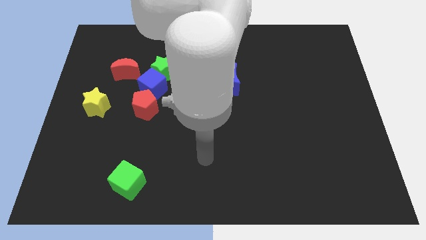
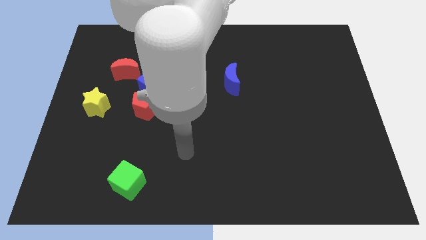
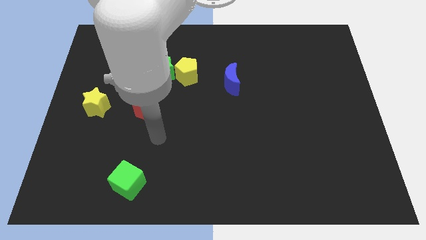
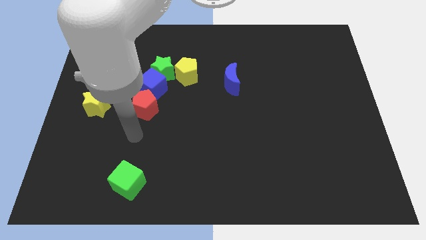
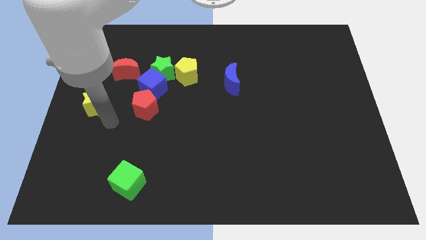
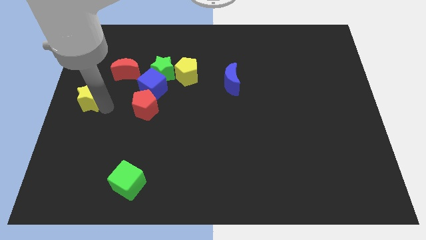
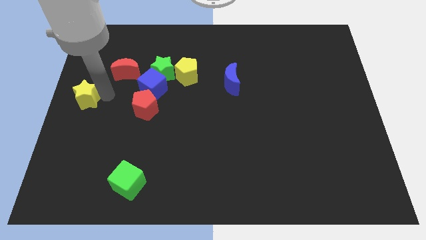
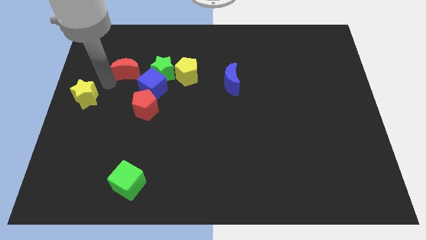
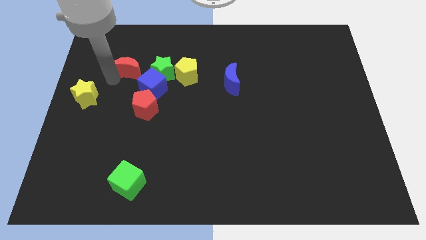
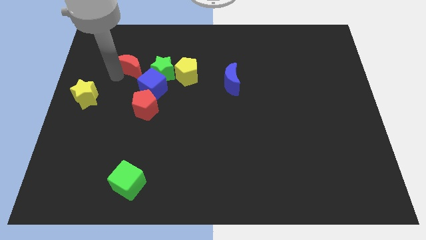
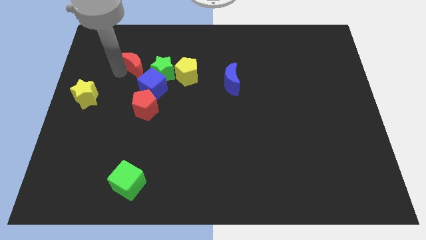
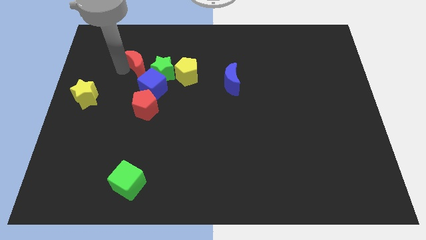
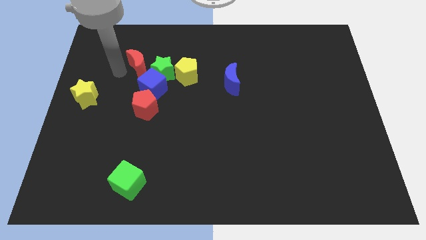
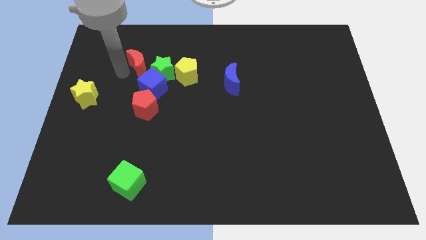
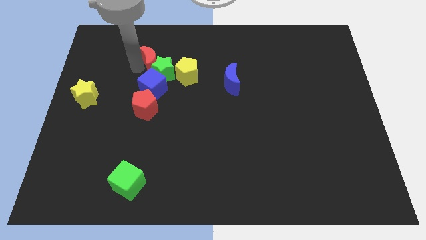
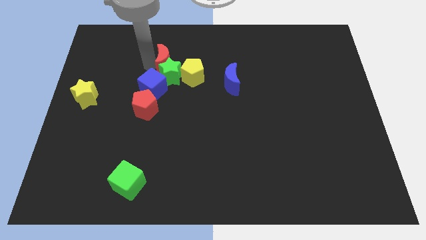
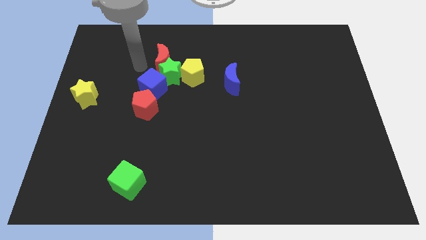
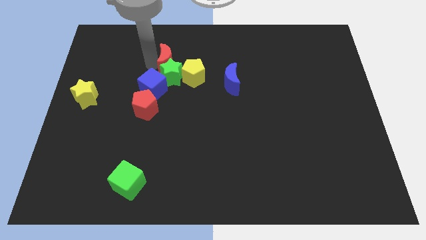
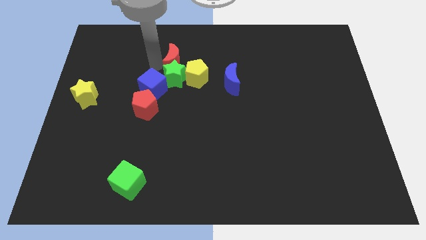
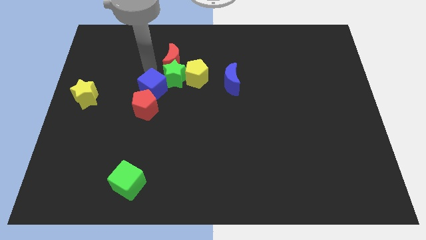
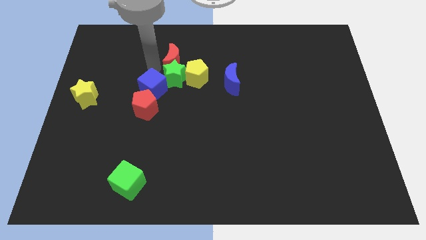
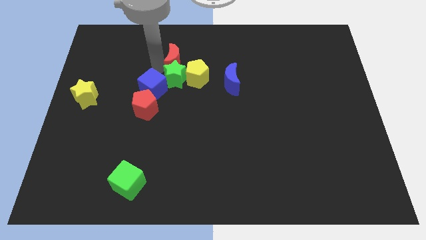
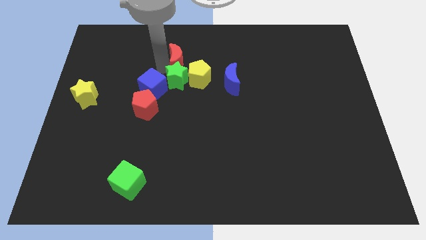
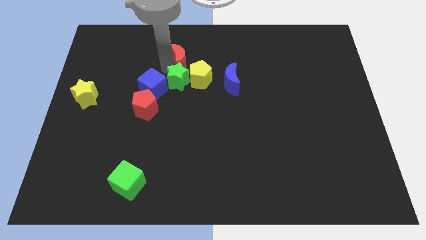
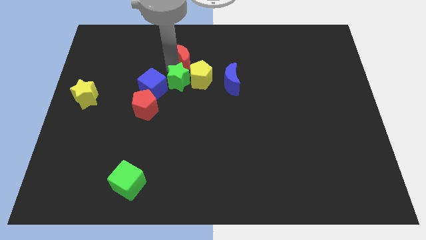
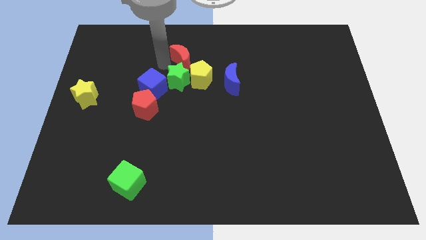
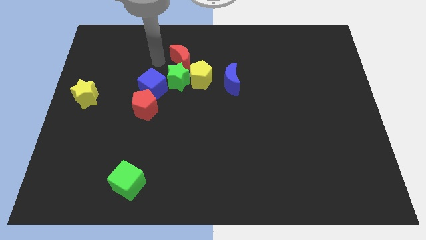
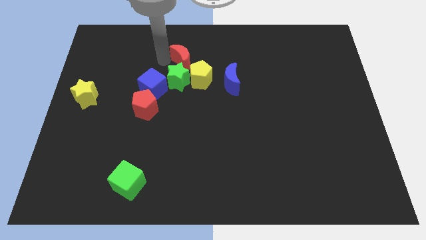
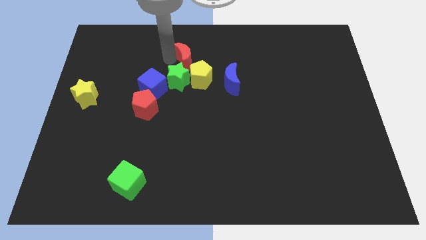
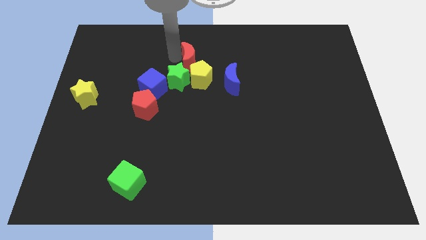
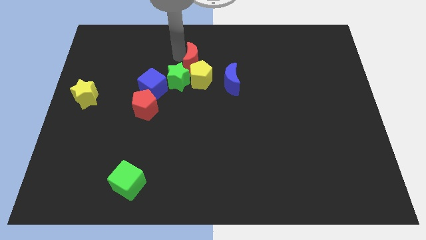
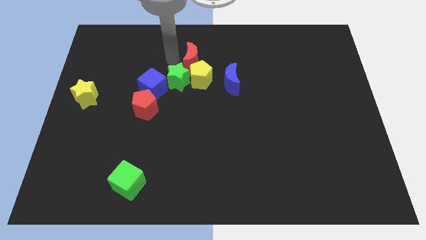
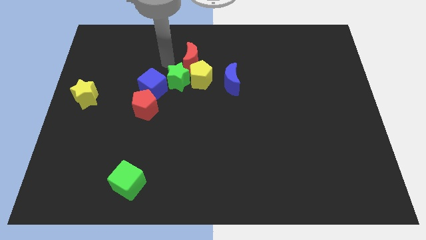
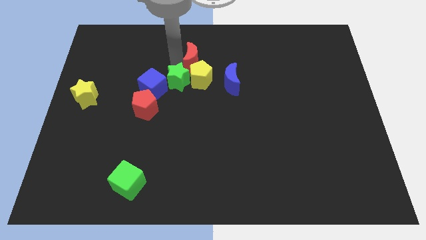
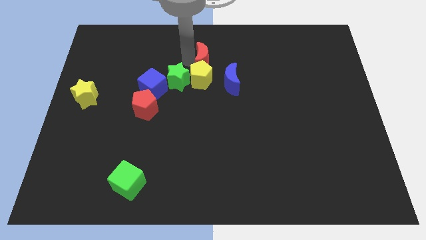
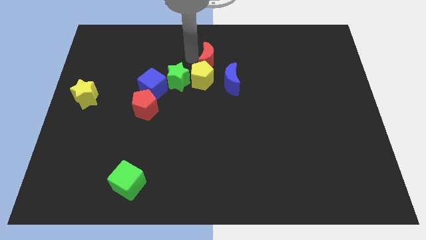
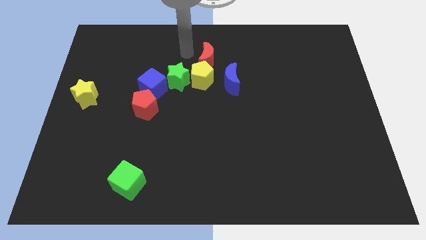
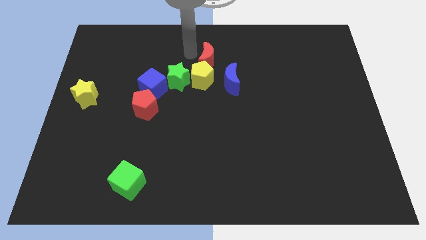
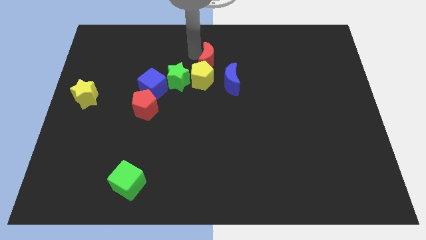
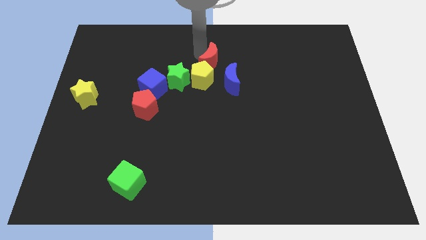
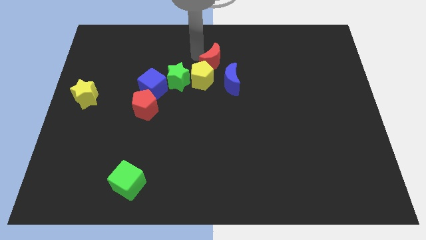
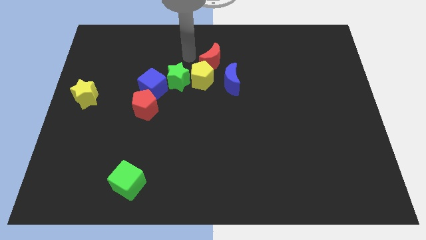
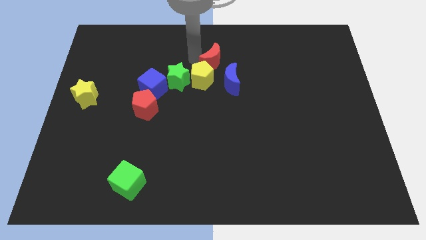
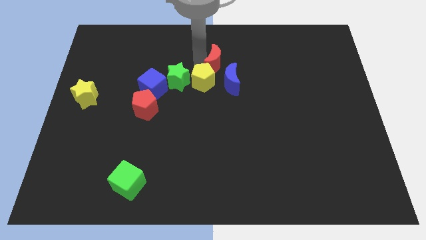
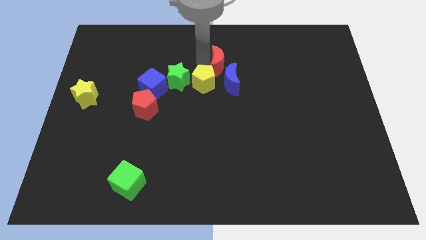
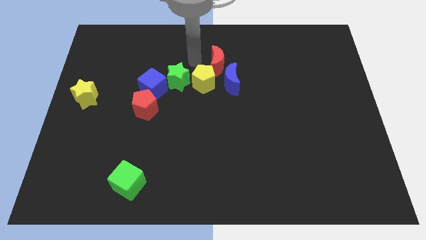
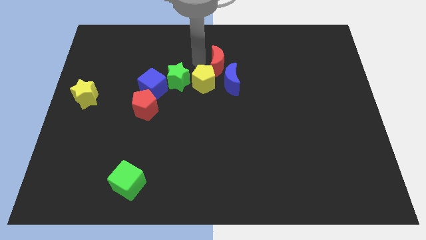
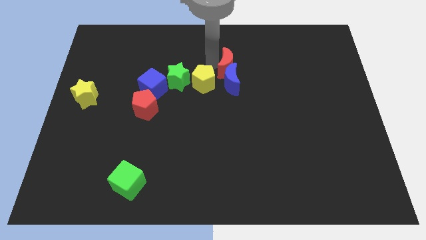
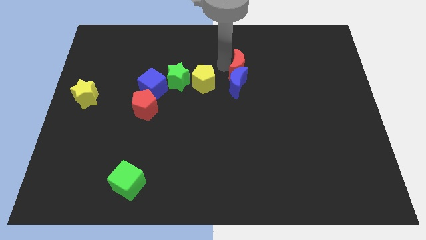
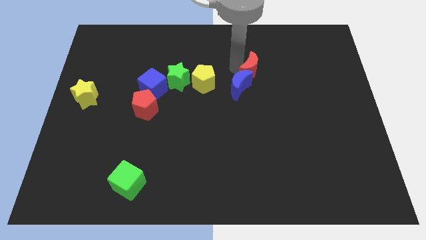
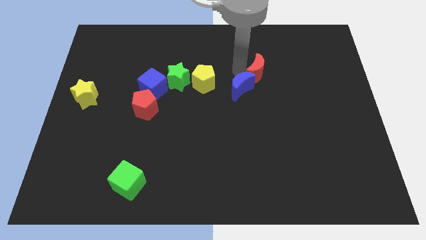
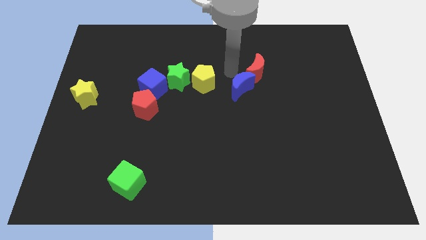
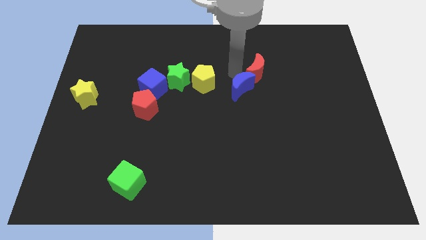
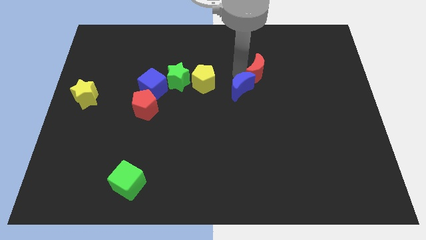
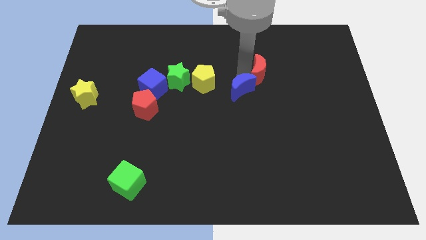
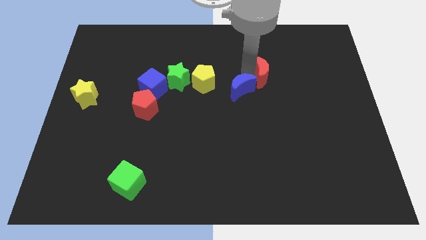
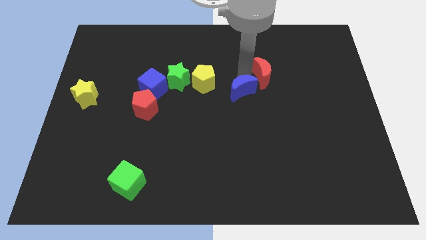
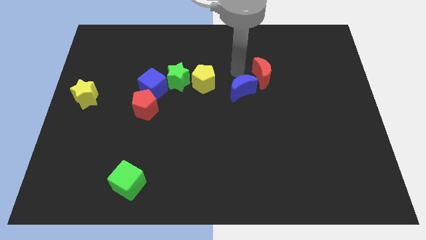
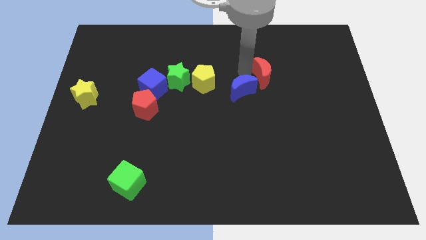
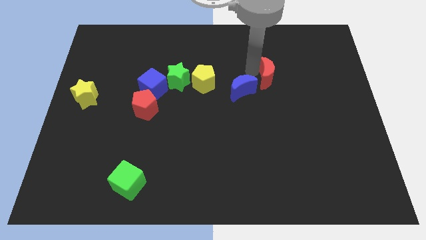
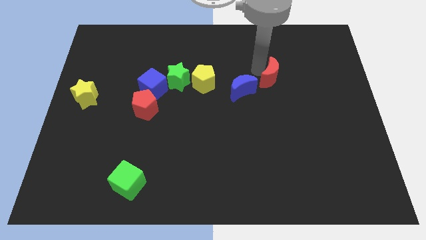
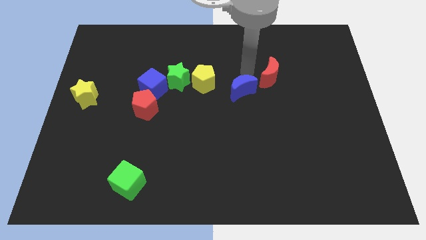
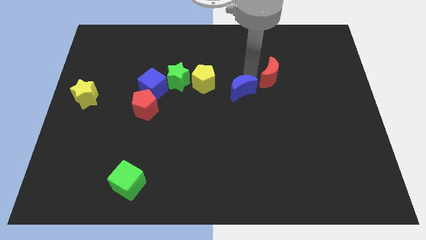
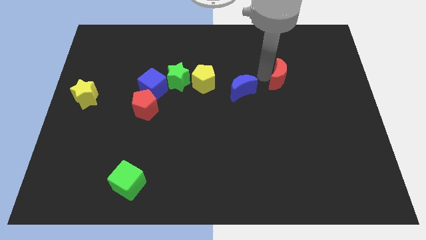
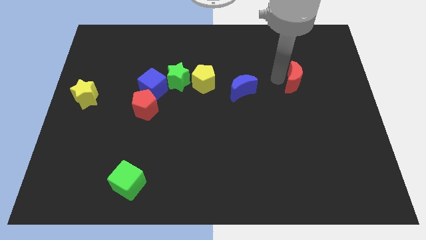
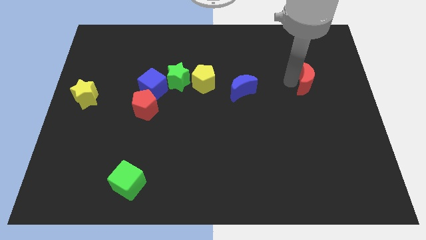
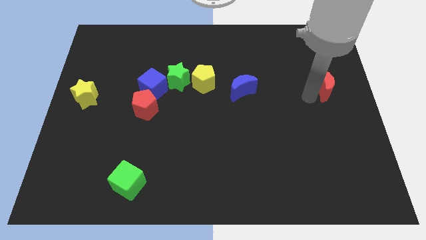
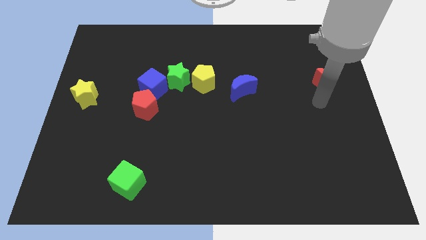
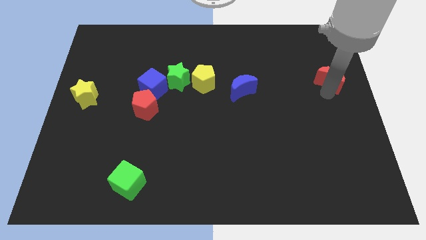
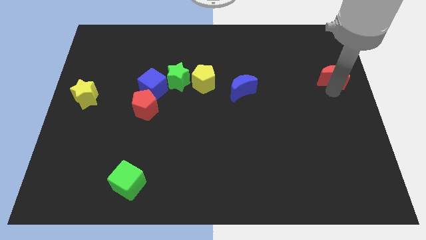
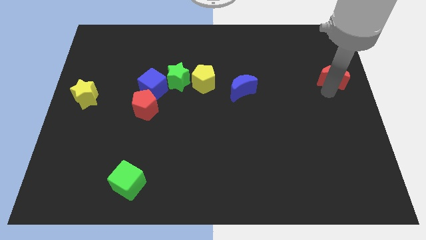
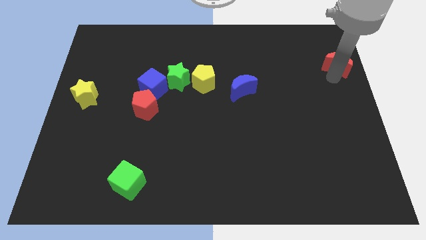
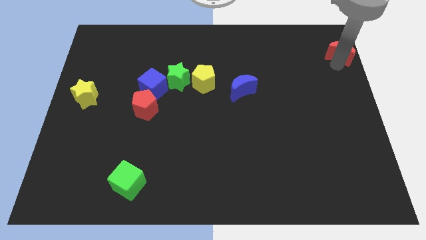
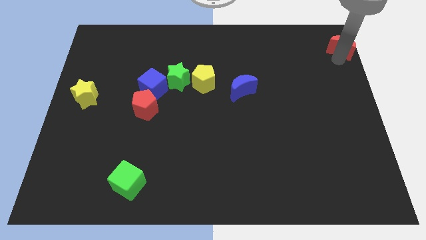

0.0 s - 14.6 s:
put the red moon to the top right corner
